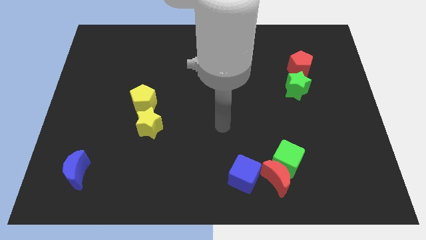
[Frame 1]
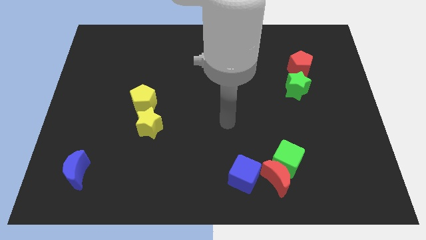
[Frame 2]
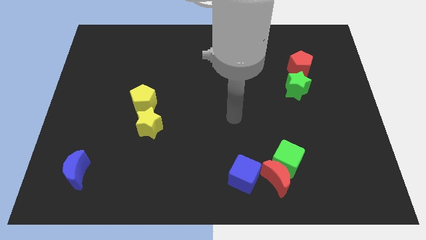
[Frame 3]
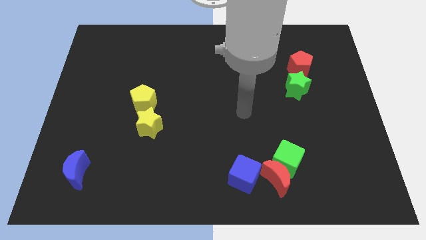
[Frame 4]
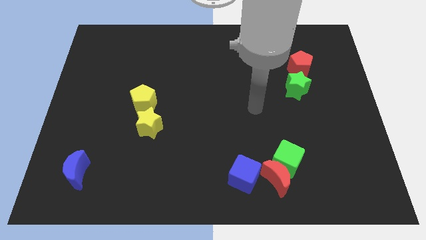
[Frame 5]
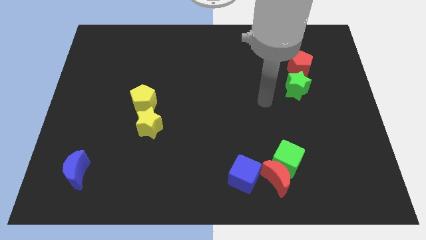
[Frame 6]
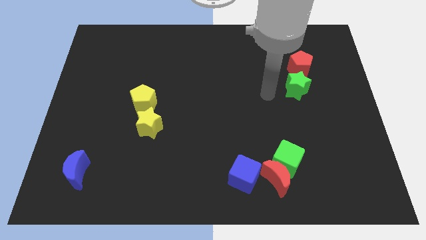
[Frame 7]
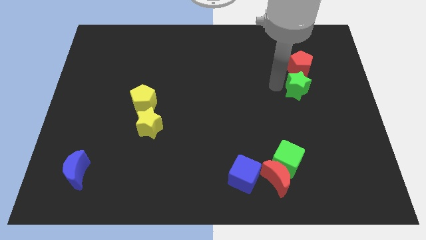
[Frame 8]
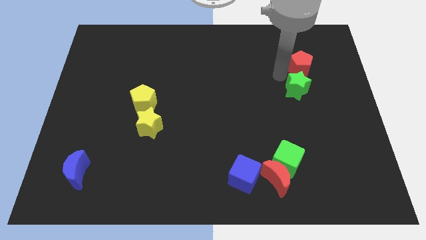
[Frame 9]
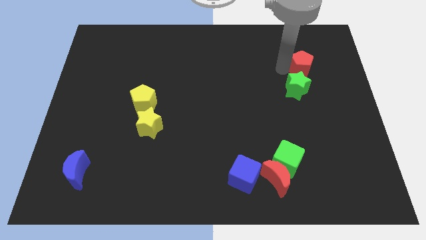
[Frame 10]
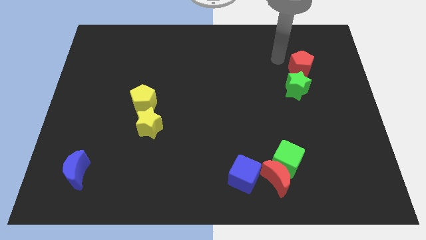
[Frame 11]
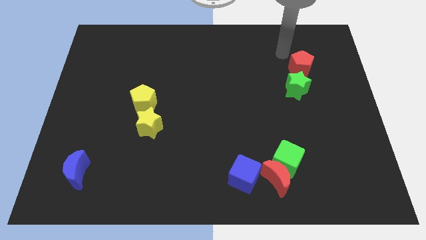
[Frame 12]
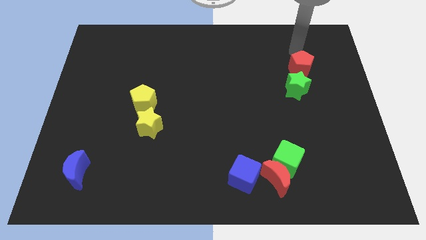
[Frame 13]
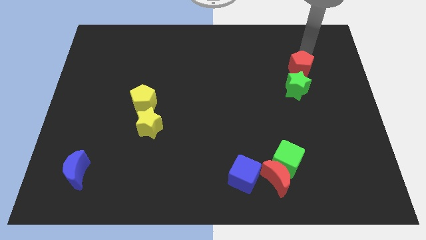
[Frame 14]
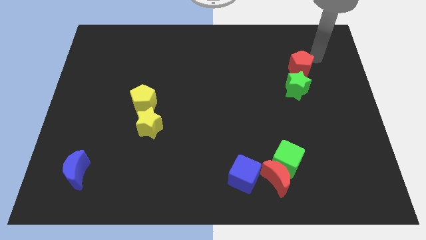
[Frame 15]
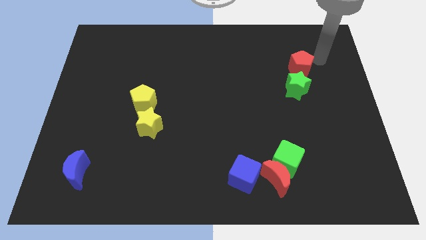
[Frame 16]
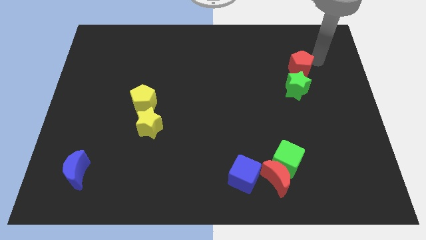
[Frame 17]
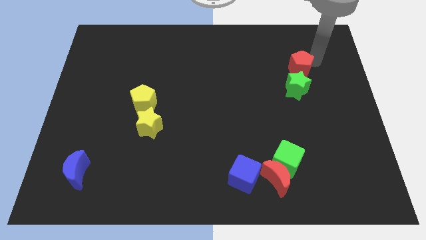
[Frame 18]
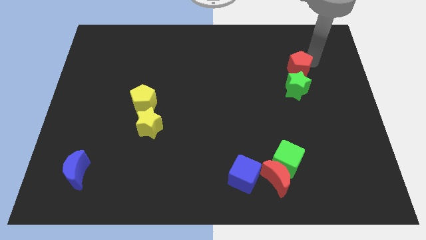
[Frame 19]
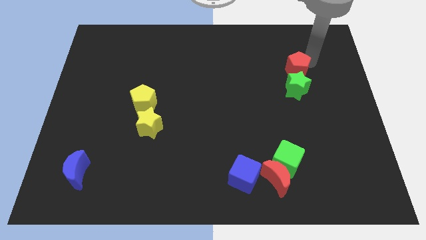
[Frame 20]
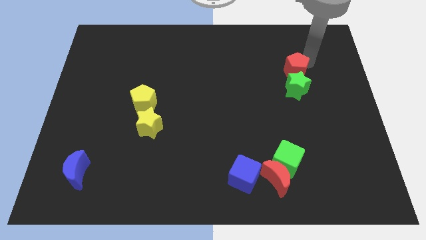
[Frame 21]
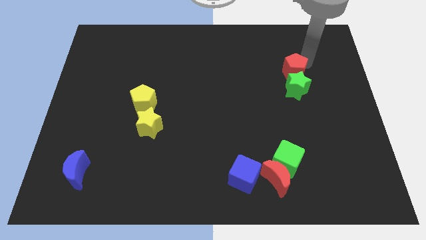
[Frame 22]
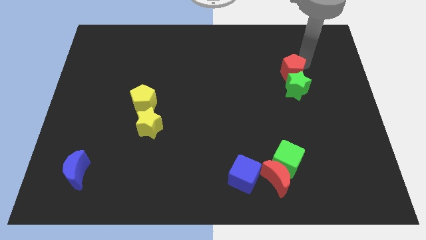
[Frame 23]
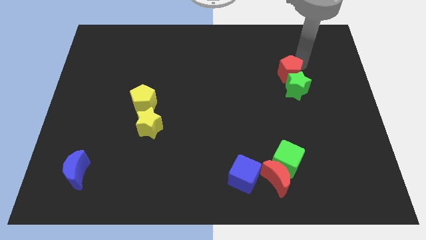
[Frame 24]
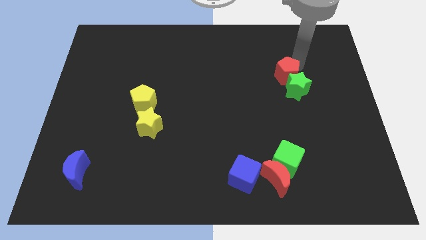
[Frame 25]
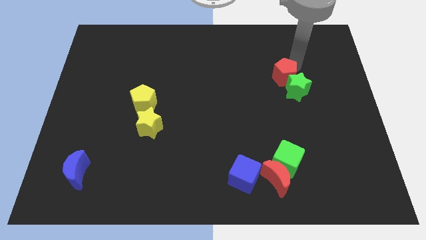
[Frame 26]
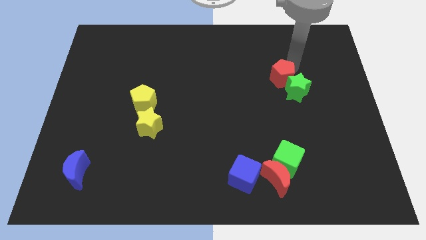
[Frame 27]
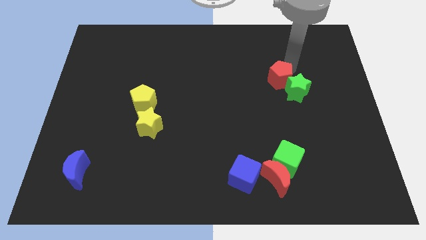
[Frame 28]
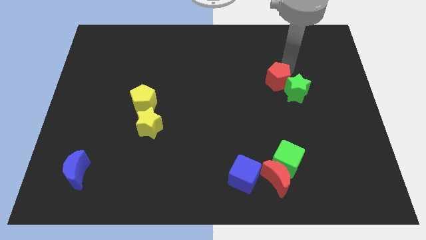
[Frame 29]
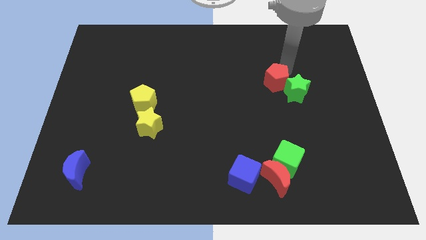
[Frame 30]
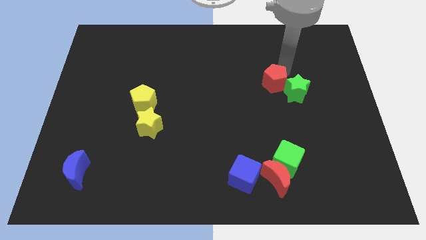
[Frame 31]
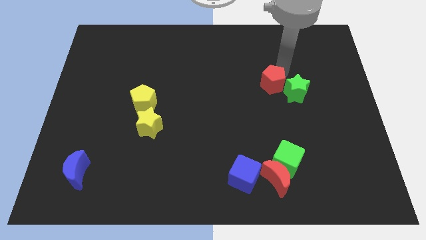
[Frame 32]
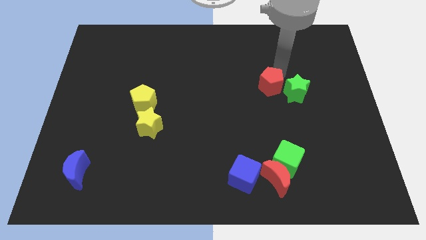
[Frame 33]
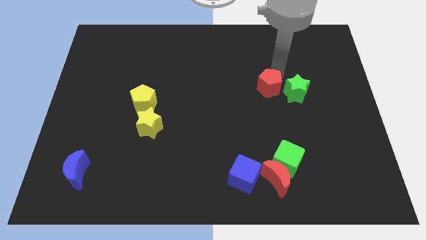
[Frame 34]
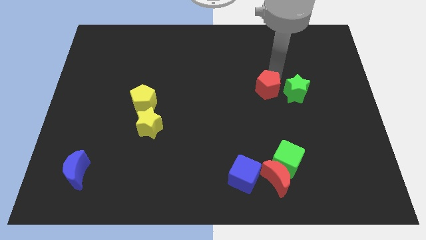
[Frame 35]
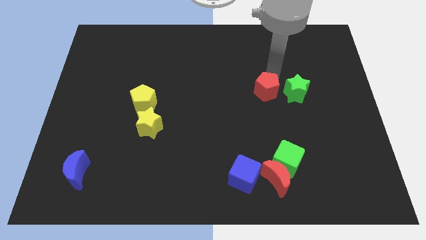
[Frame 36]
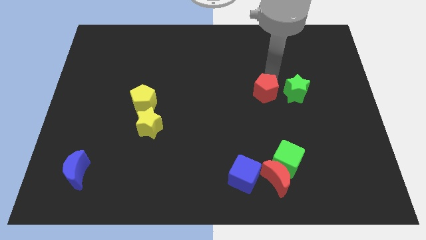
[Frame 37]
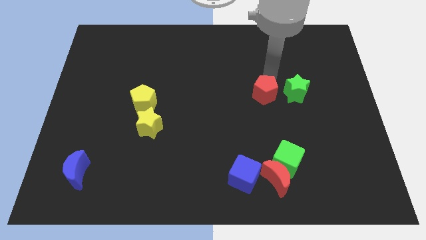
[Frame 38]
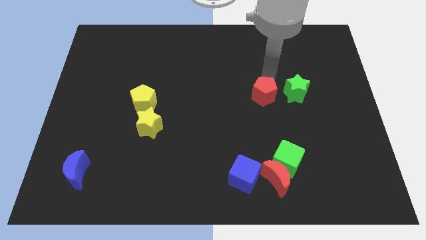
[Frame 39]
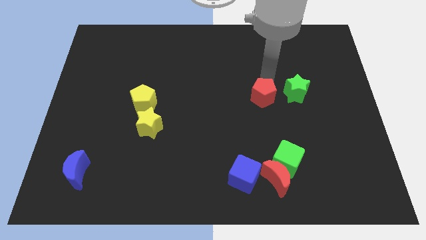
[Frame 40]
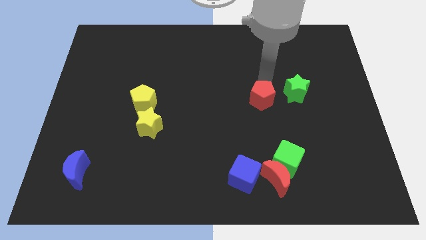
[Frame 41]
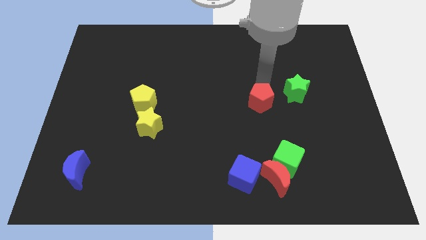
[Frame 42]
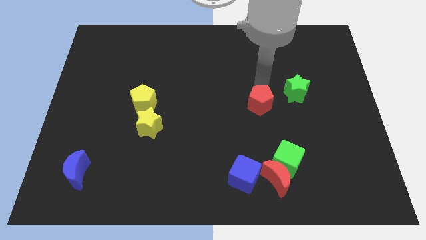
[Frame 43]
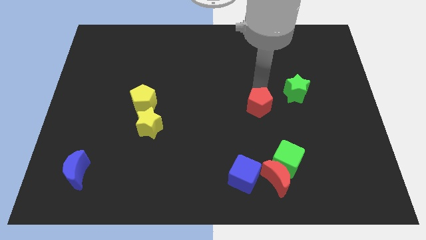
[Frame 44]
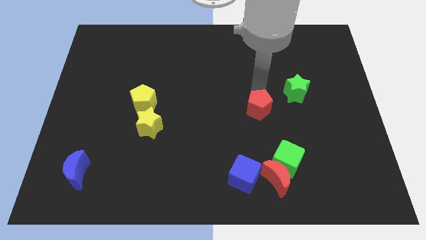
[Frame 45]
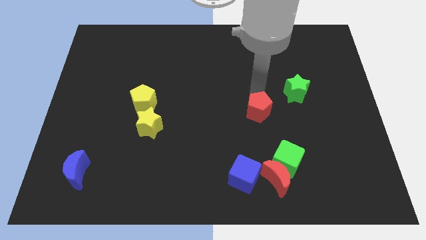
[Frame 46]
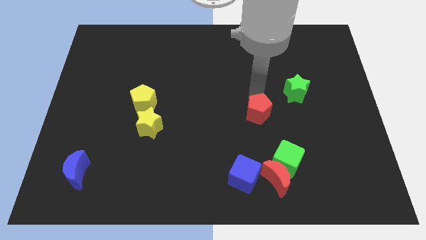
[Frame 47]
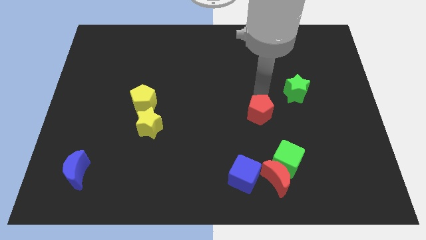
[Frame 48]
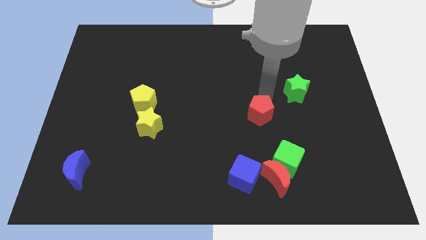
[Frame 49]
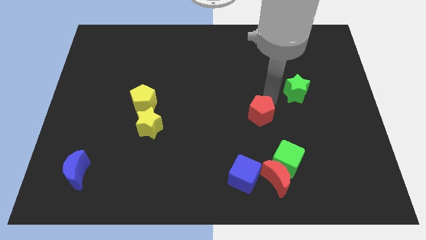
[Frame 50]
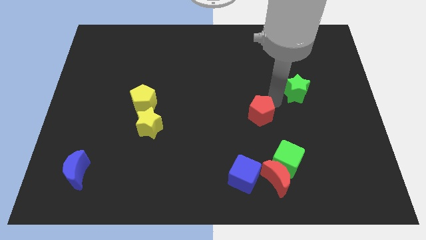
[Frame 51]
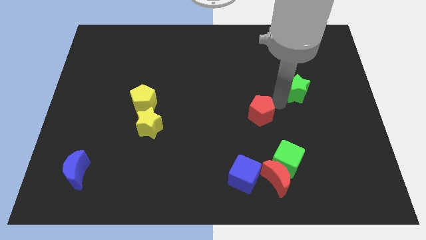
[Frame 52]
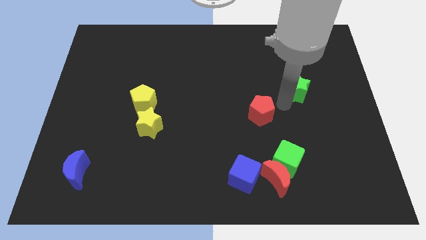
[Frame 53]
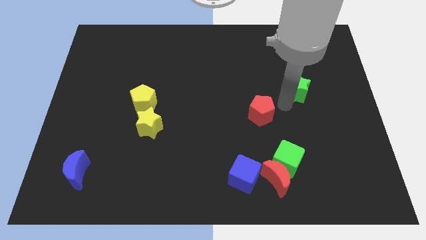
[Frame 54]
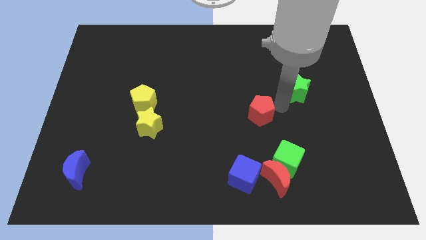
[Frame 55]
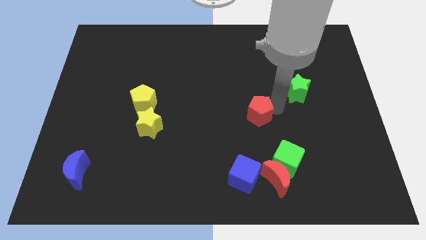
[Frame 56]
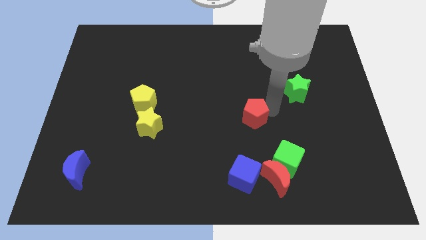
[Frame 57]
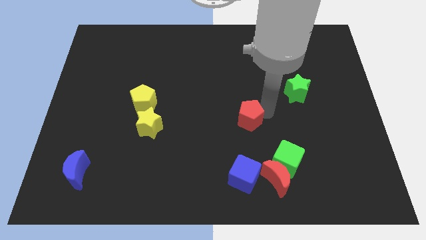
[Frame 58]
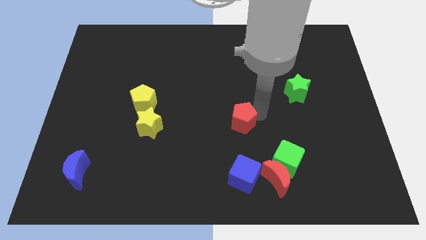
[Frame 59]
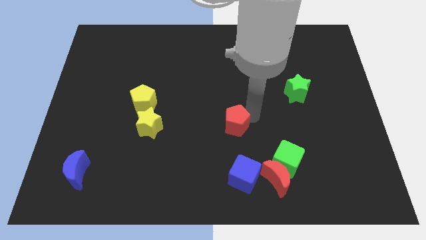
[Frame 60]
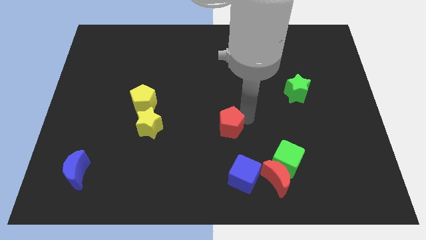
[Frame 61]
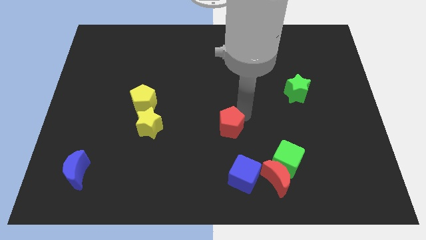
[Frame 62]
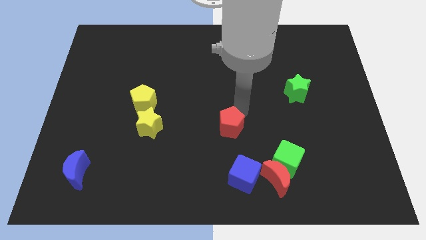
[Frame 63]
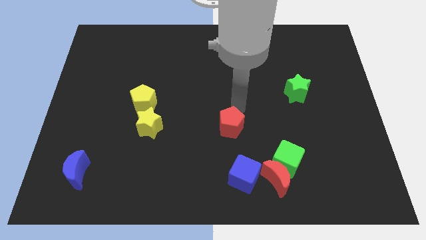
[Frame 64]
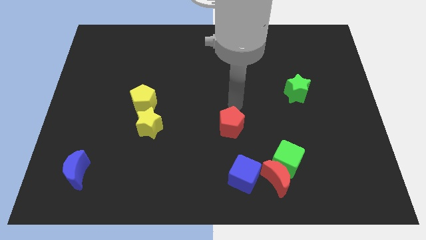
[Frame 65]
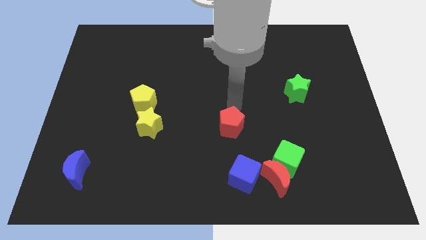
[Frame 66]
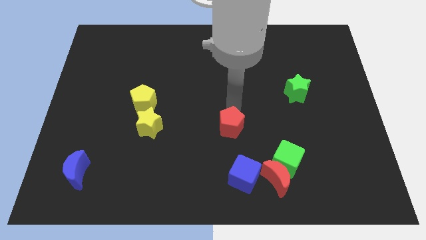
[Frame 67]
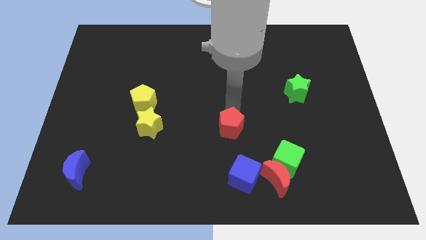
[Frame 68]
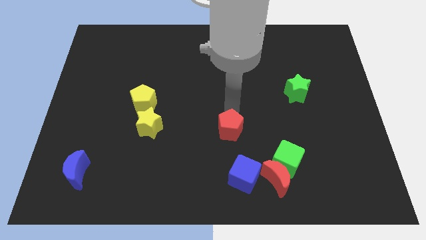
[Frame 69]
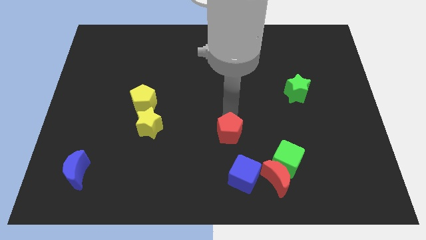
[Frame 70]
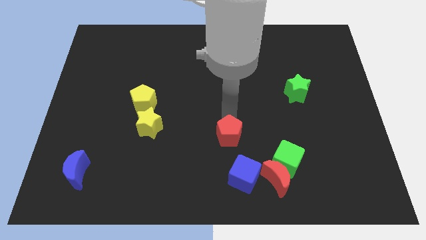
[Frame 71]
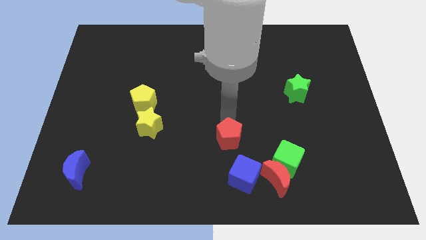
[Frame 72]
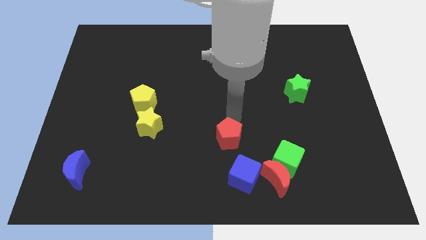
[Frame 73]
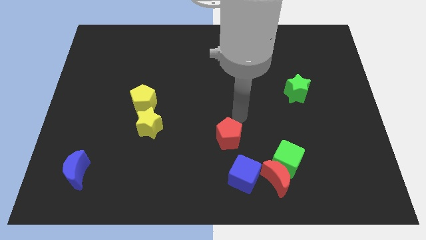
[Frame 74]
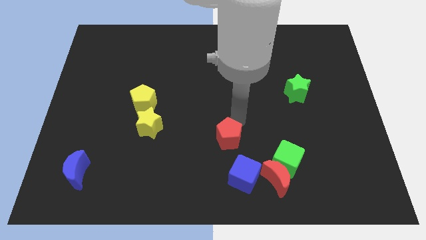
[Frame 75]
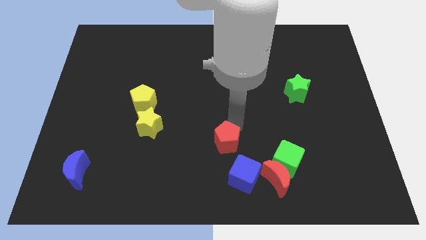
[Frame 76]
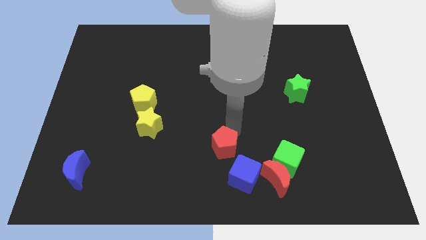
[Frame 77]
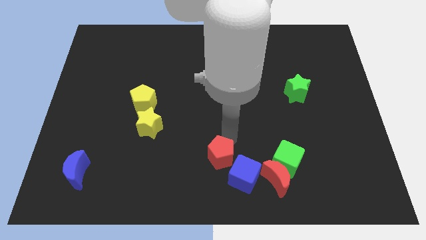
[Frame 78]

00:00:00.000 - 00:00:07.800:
move the red pentagon to the bottom
